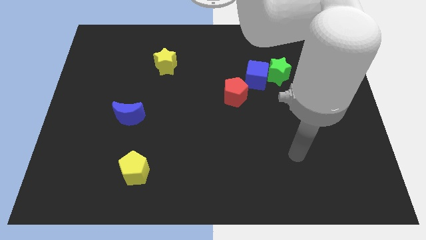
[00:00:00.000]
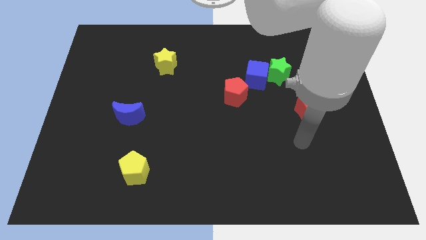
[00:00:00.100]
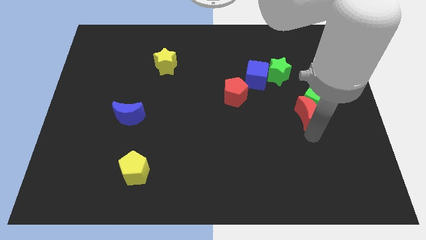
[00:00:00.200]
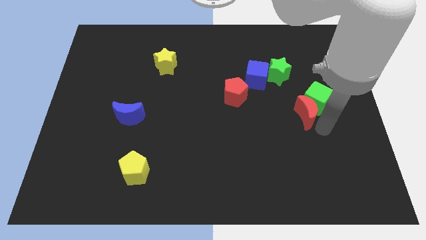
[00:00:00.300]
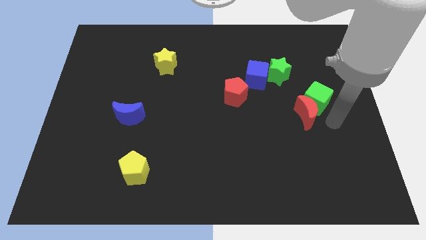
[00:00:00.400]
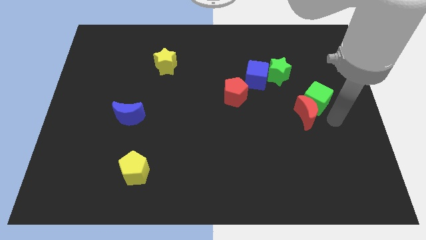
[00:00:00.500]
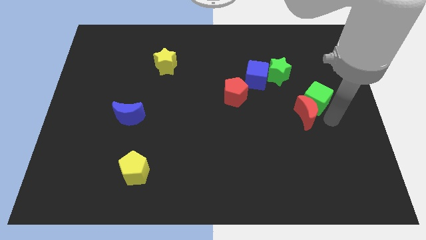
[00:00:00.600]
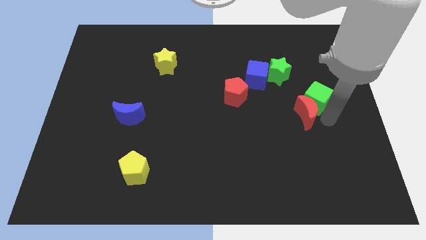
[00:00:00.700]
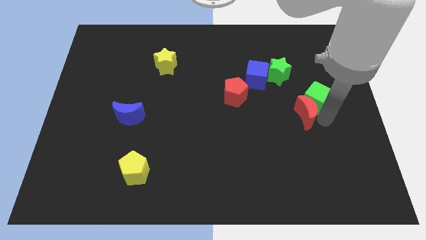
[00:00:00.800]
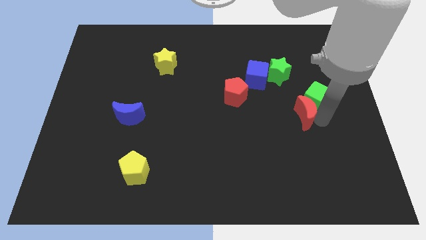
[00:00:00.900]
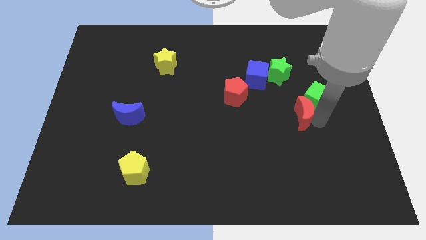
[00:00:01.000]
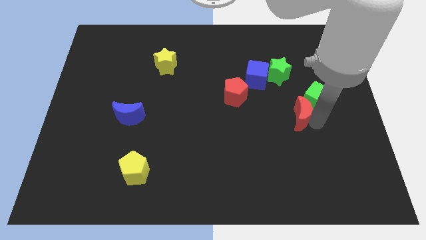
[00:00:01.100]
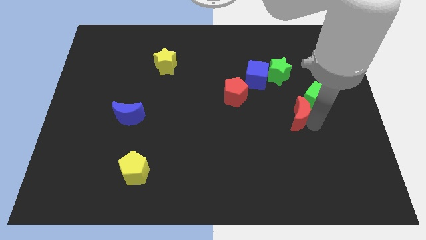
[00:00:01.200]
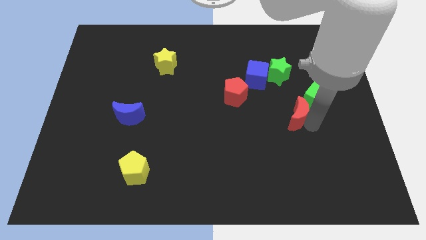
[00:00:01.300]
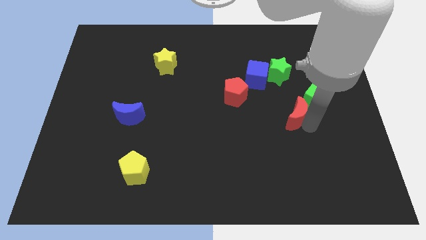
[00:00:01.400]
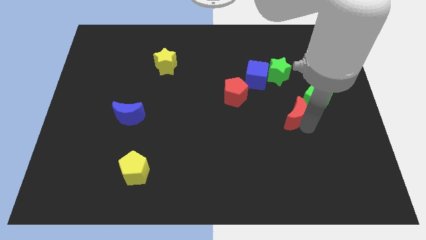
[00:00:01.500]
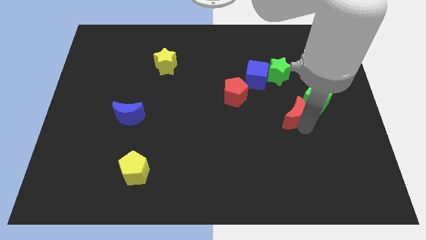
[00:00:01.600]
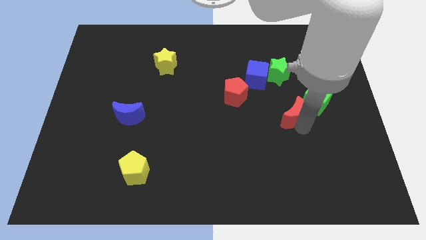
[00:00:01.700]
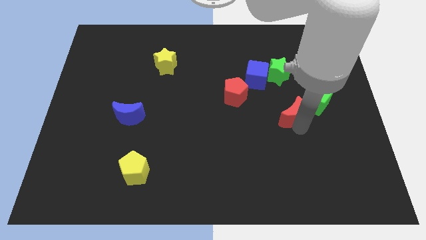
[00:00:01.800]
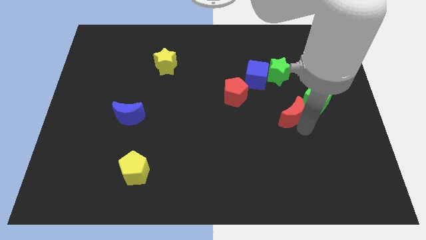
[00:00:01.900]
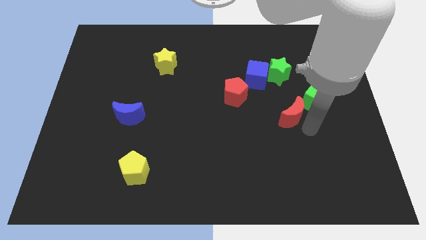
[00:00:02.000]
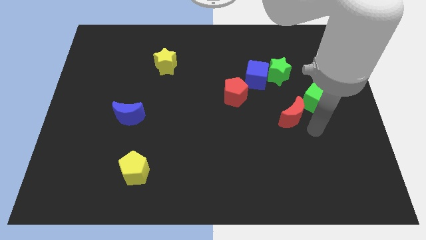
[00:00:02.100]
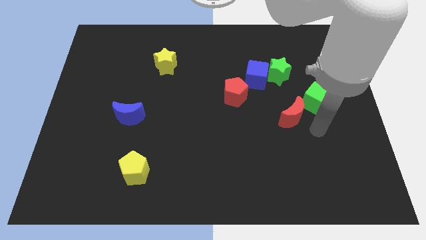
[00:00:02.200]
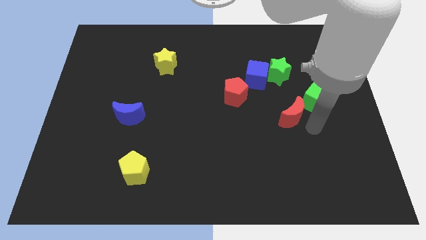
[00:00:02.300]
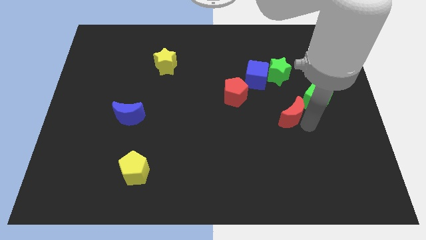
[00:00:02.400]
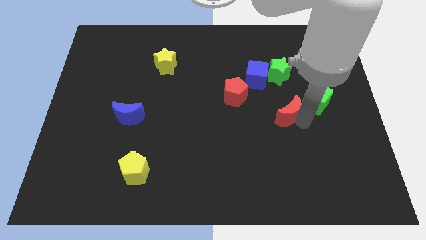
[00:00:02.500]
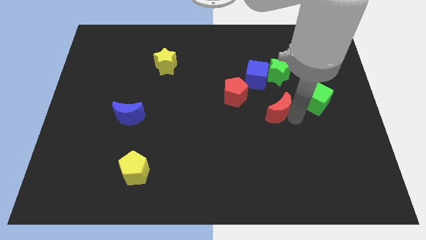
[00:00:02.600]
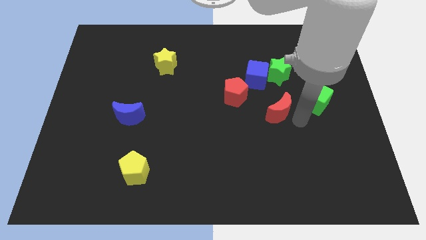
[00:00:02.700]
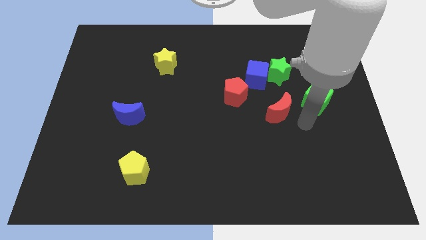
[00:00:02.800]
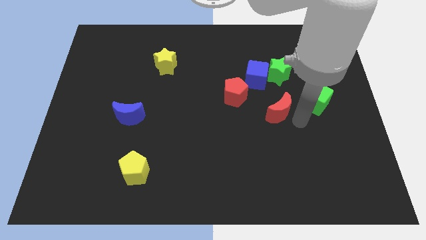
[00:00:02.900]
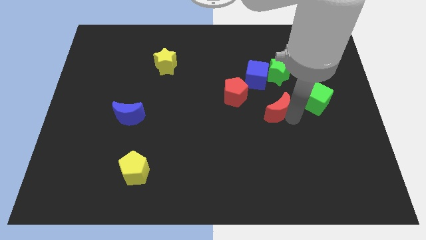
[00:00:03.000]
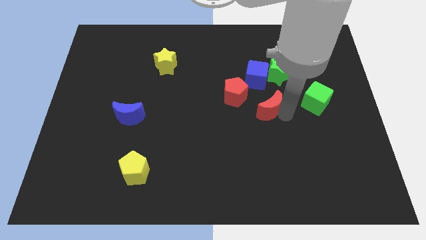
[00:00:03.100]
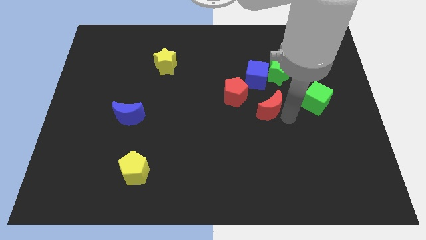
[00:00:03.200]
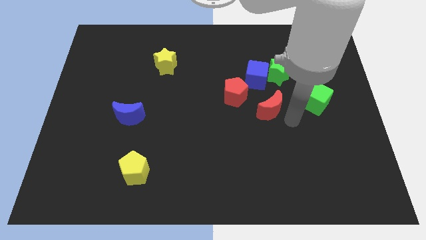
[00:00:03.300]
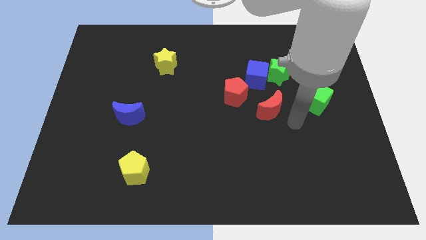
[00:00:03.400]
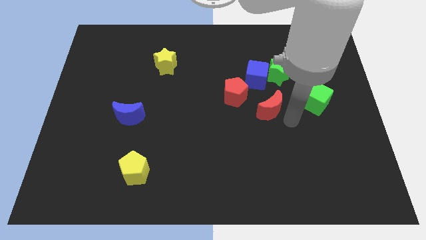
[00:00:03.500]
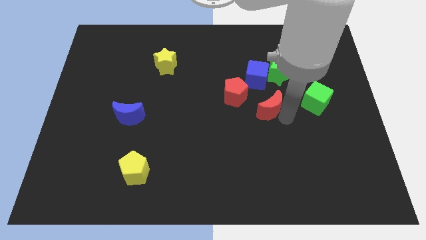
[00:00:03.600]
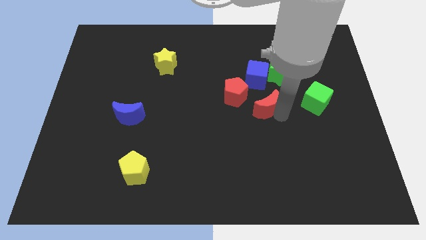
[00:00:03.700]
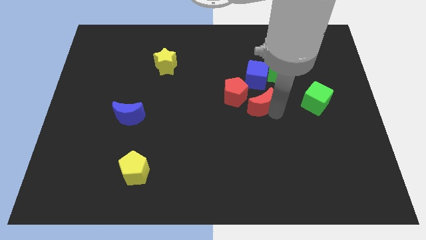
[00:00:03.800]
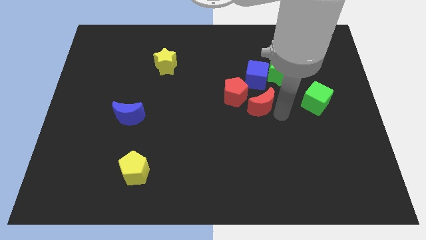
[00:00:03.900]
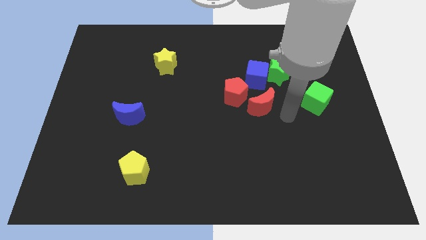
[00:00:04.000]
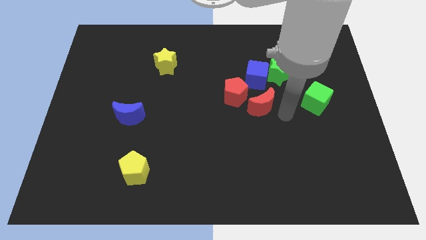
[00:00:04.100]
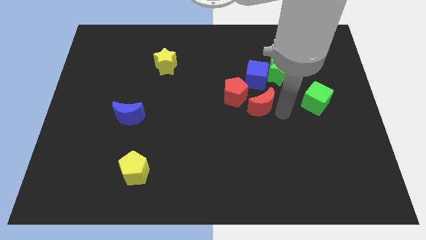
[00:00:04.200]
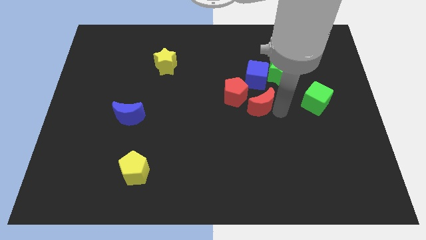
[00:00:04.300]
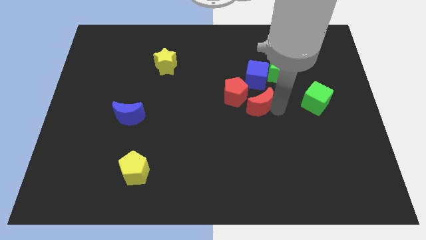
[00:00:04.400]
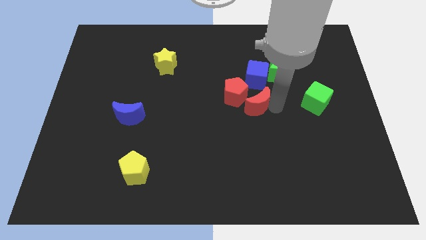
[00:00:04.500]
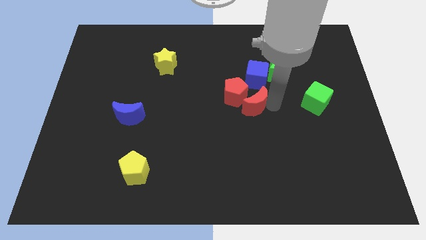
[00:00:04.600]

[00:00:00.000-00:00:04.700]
slide the red moon close to the red pentagon

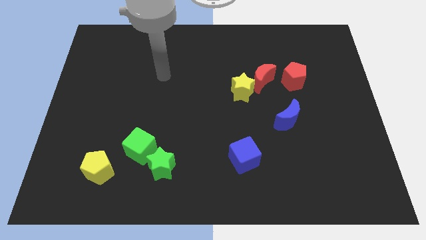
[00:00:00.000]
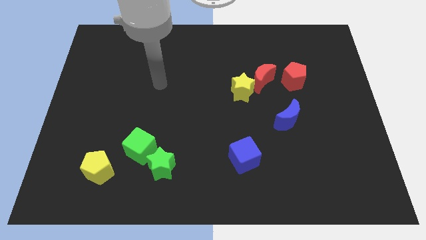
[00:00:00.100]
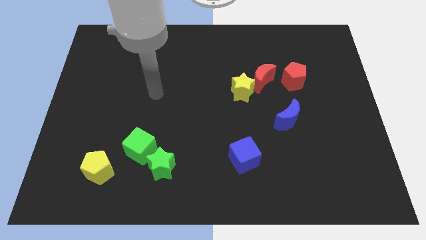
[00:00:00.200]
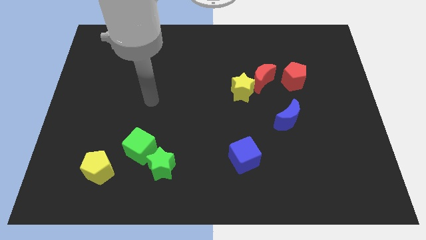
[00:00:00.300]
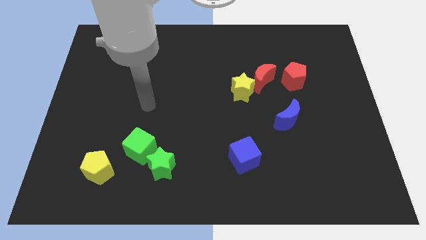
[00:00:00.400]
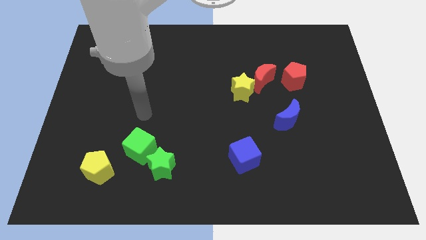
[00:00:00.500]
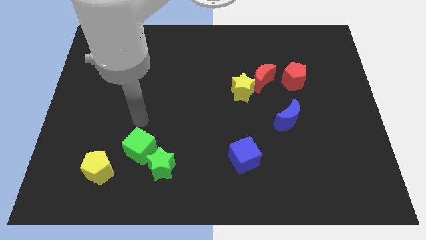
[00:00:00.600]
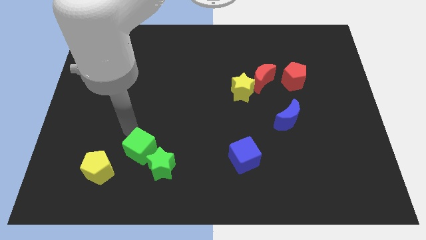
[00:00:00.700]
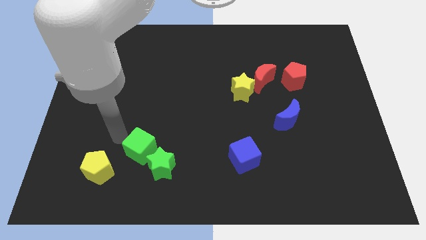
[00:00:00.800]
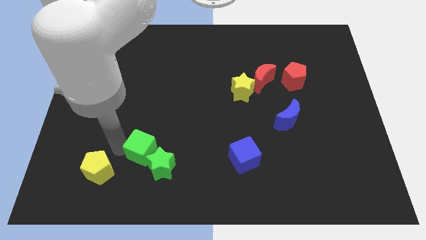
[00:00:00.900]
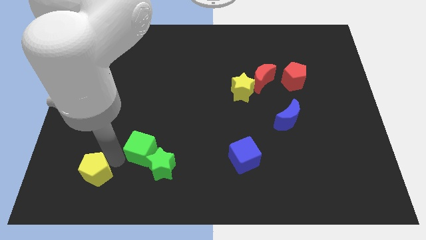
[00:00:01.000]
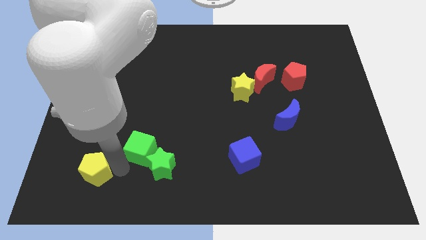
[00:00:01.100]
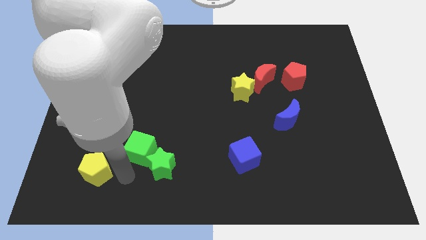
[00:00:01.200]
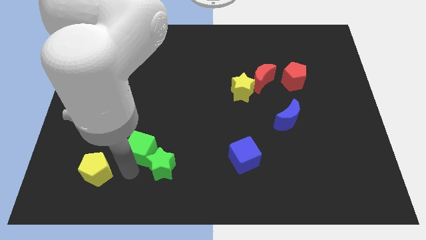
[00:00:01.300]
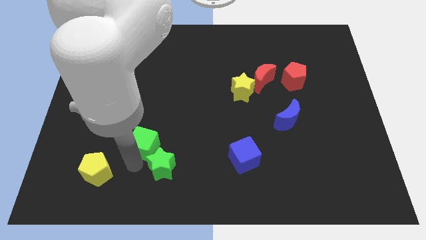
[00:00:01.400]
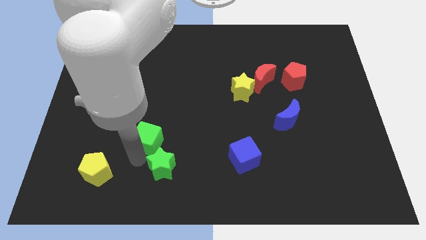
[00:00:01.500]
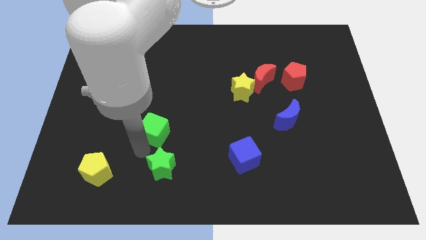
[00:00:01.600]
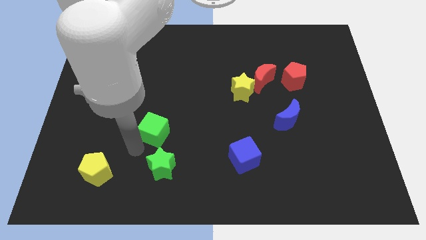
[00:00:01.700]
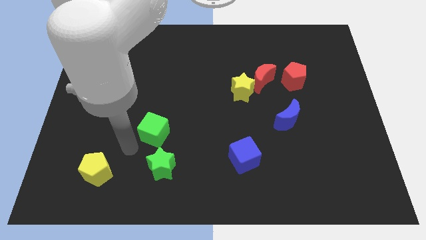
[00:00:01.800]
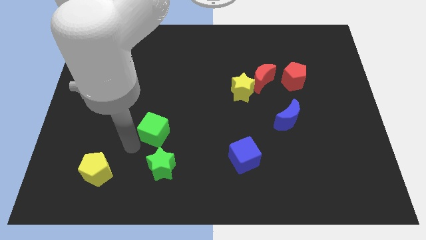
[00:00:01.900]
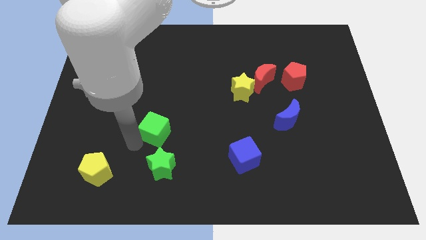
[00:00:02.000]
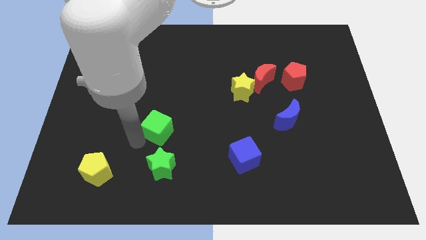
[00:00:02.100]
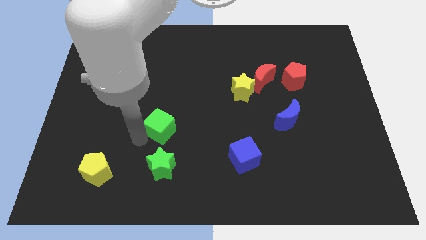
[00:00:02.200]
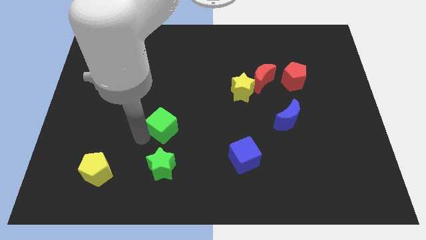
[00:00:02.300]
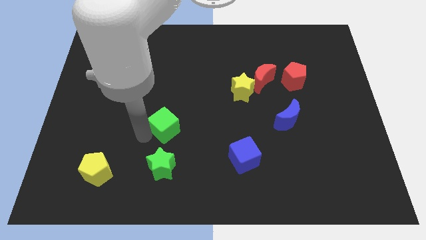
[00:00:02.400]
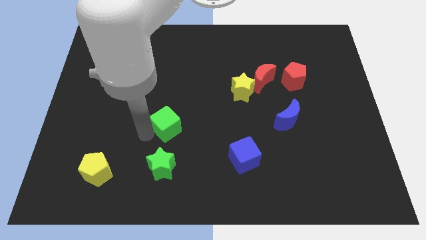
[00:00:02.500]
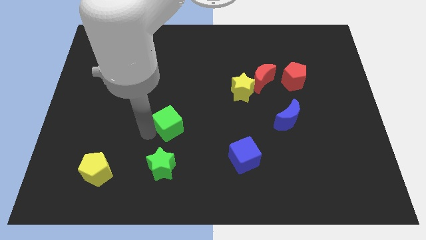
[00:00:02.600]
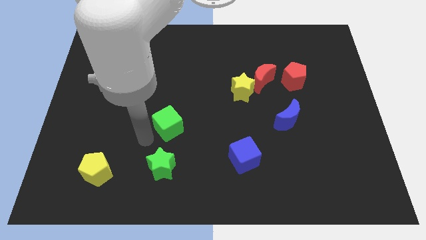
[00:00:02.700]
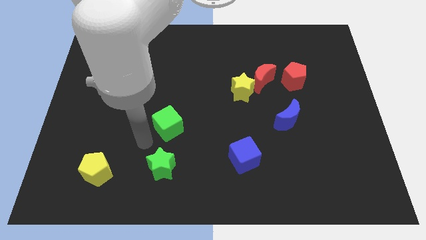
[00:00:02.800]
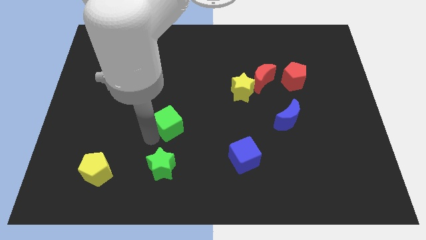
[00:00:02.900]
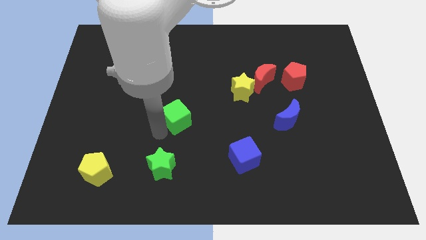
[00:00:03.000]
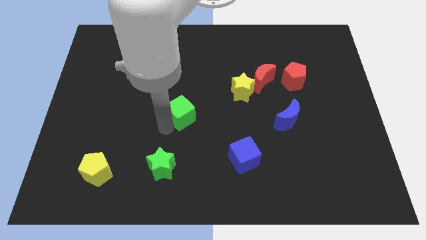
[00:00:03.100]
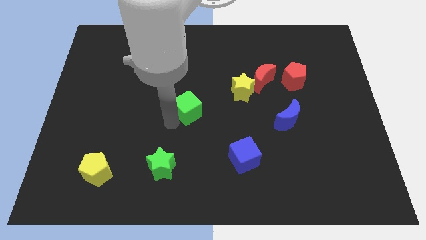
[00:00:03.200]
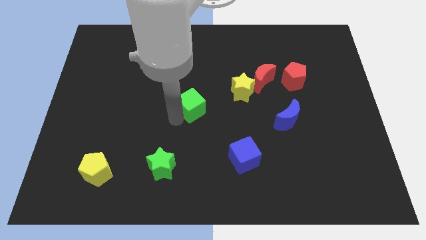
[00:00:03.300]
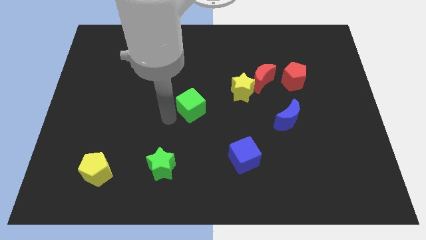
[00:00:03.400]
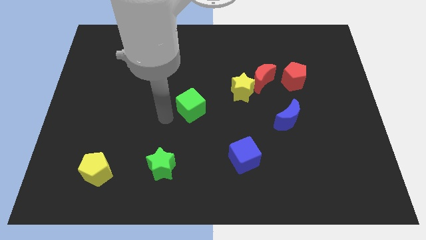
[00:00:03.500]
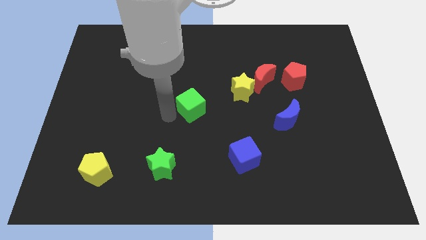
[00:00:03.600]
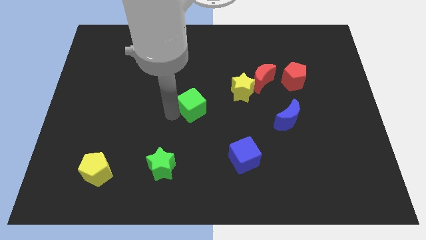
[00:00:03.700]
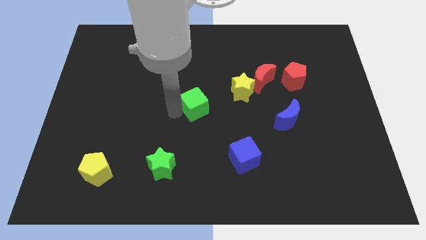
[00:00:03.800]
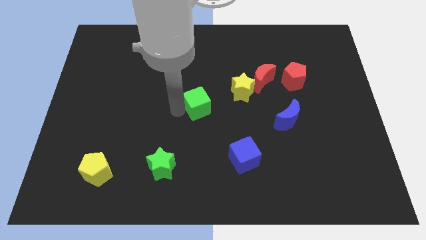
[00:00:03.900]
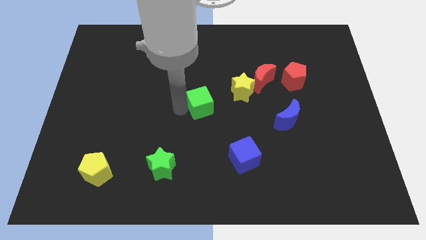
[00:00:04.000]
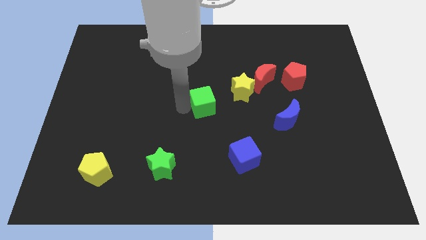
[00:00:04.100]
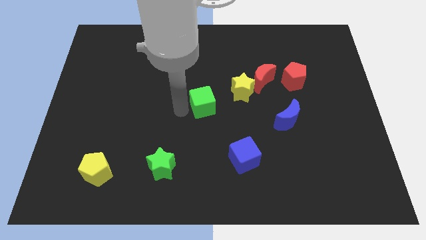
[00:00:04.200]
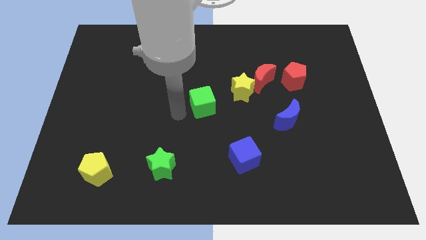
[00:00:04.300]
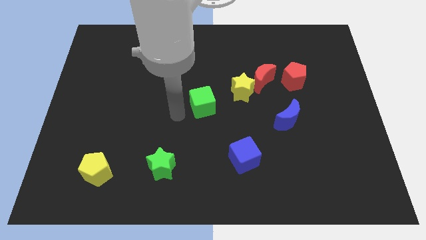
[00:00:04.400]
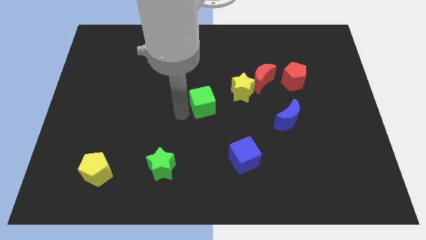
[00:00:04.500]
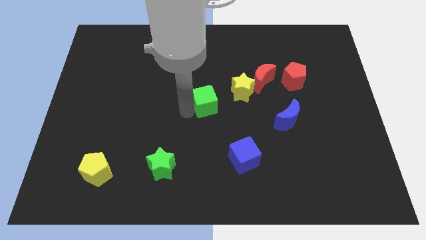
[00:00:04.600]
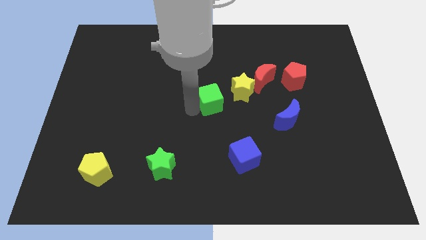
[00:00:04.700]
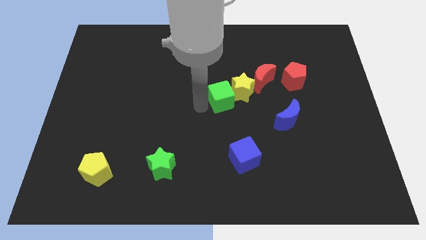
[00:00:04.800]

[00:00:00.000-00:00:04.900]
put the green cube to the yellow star
